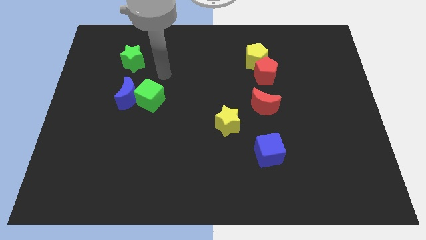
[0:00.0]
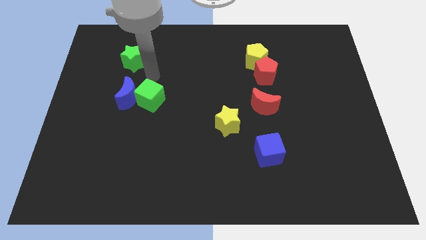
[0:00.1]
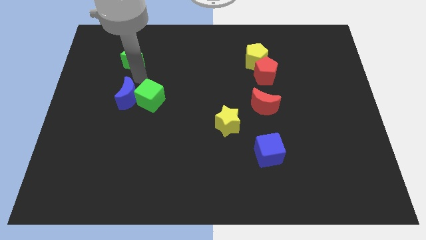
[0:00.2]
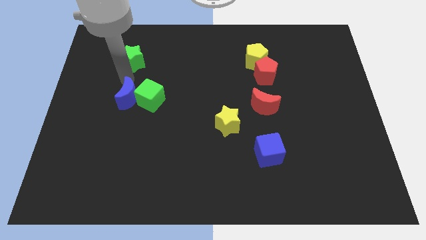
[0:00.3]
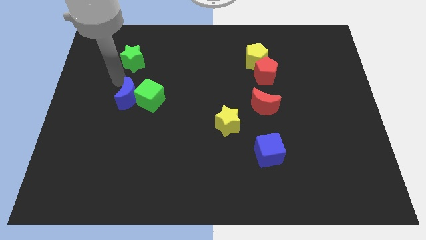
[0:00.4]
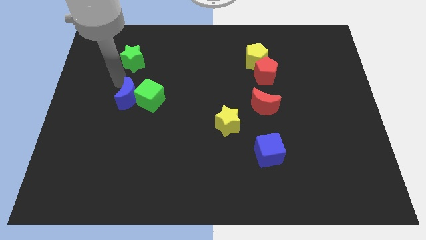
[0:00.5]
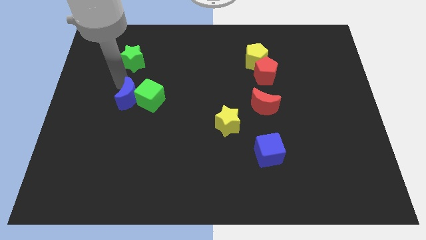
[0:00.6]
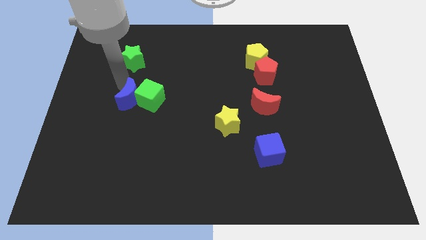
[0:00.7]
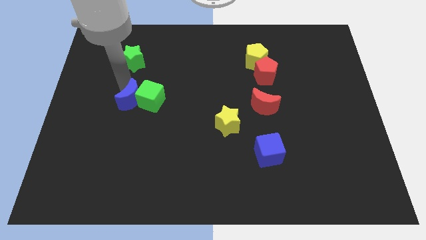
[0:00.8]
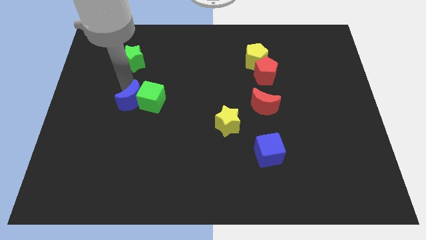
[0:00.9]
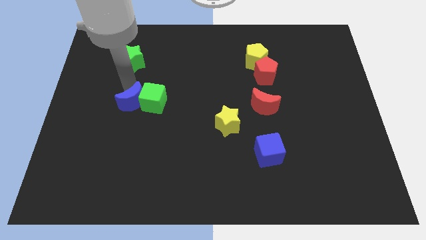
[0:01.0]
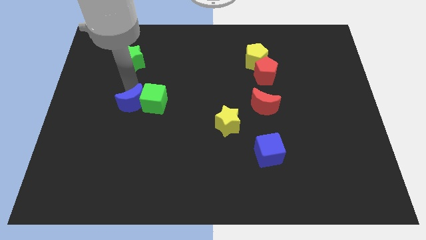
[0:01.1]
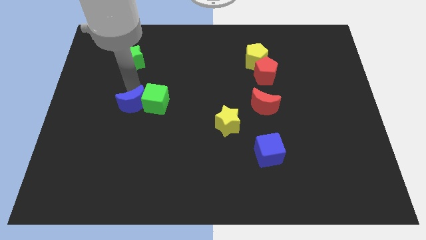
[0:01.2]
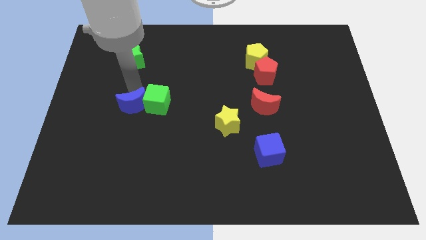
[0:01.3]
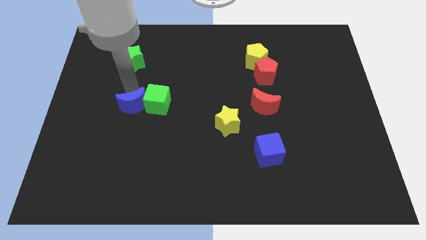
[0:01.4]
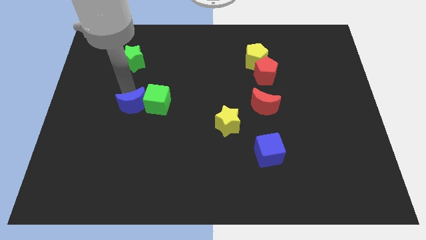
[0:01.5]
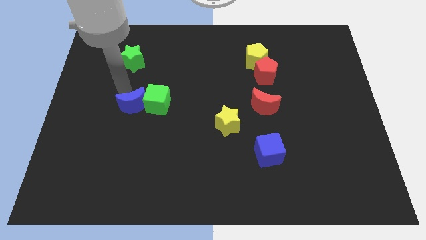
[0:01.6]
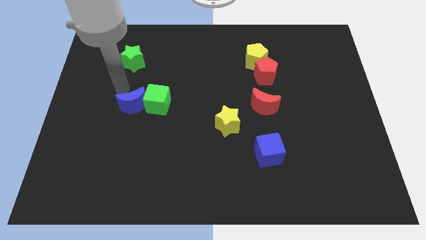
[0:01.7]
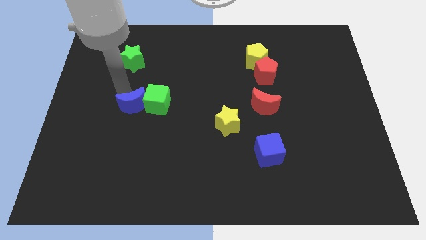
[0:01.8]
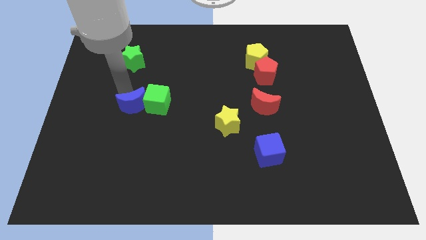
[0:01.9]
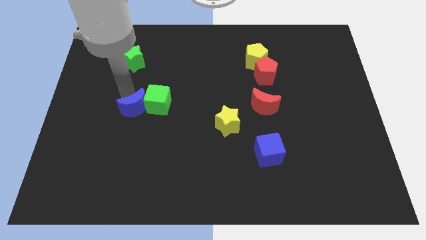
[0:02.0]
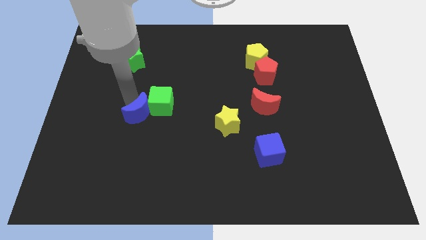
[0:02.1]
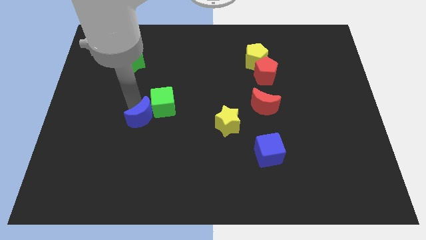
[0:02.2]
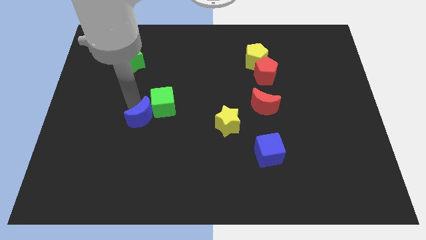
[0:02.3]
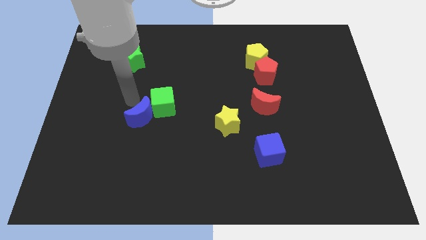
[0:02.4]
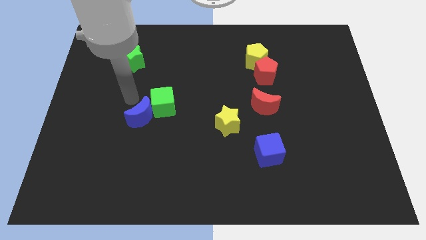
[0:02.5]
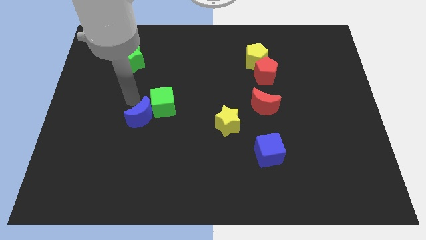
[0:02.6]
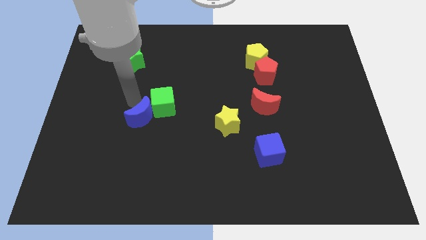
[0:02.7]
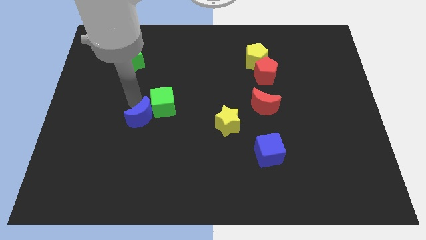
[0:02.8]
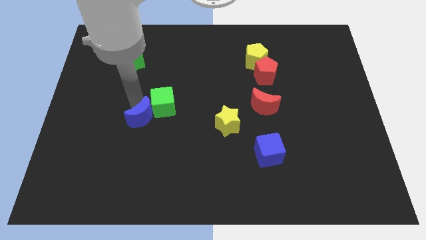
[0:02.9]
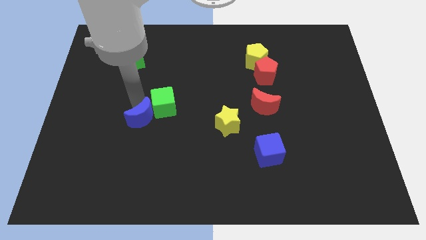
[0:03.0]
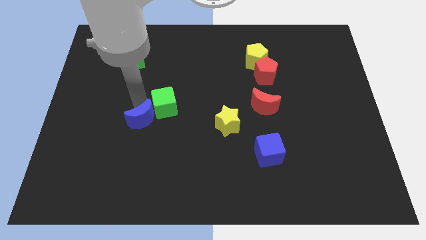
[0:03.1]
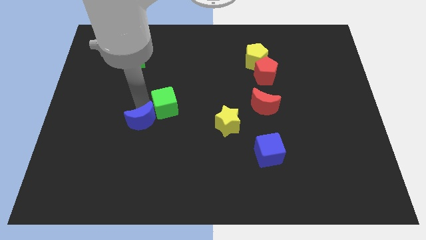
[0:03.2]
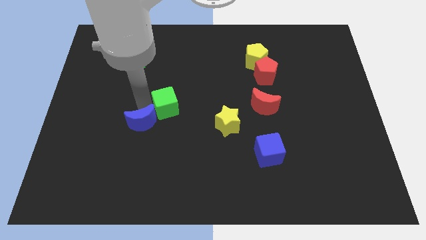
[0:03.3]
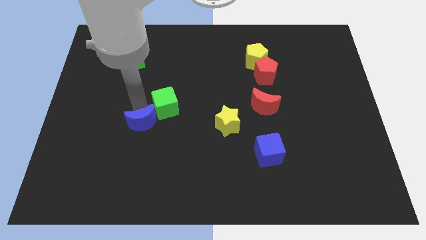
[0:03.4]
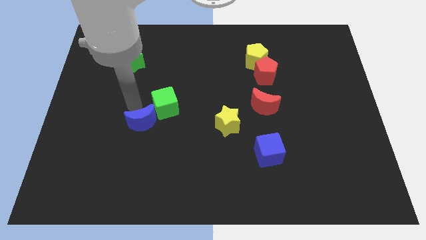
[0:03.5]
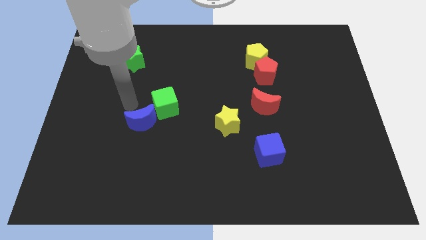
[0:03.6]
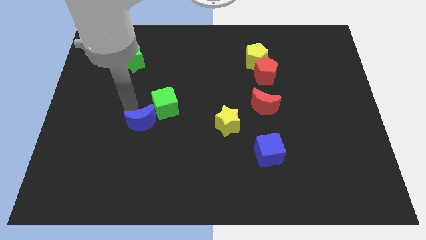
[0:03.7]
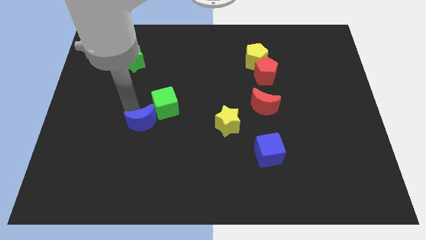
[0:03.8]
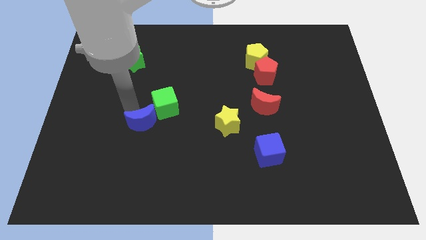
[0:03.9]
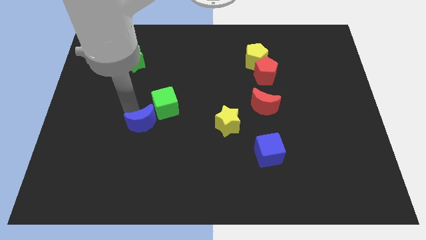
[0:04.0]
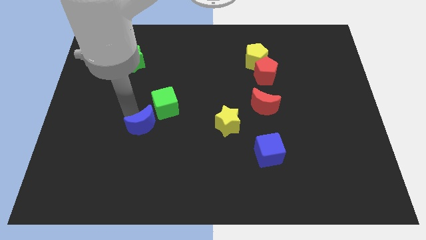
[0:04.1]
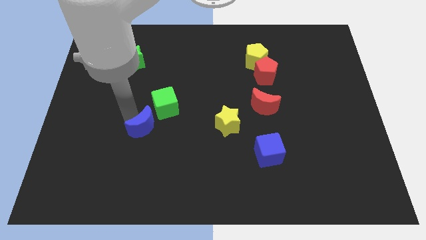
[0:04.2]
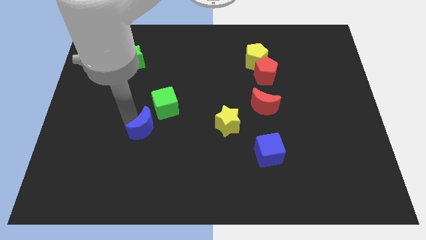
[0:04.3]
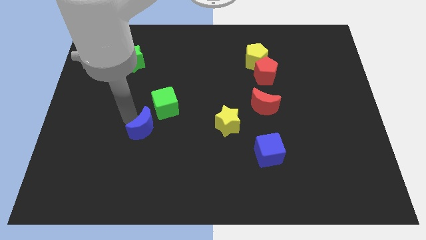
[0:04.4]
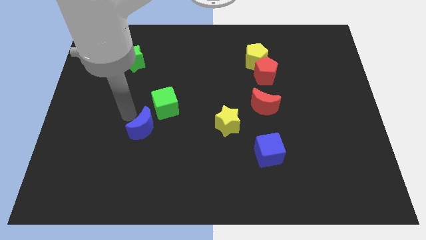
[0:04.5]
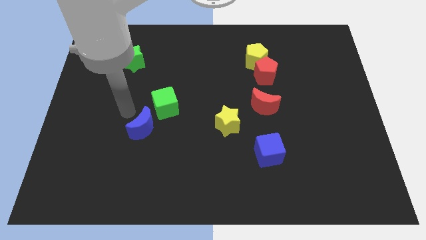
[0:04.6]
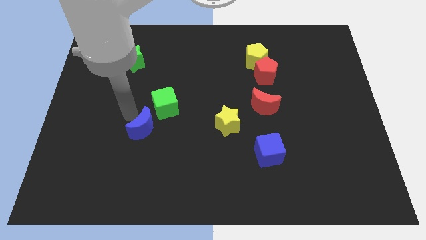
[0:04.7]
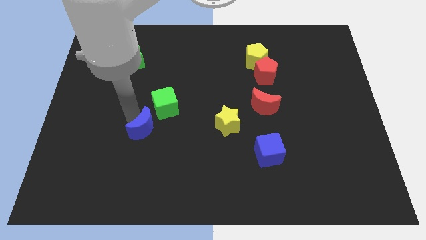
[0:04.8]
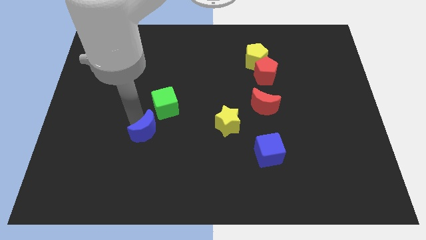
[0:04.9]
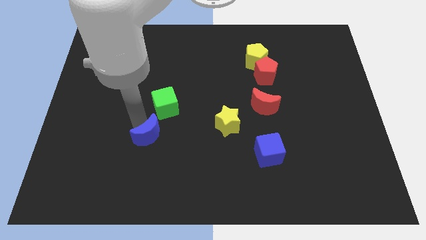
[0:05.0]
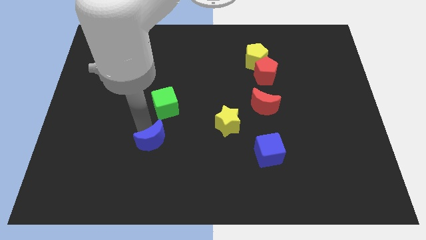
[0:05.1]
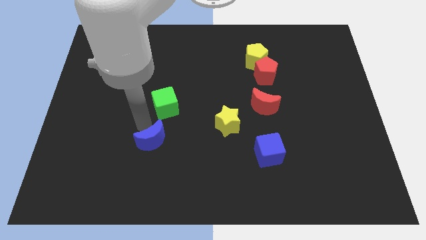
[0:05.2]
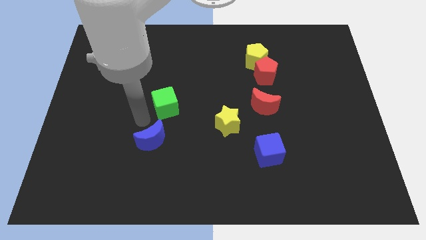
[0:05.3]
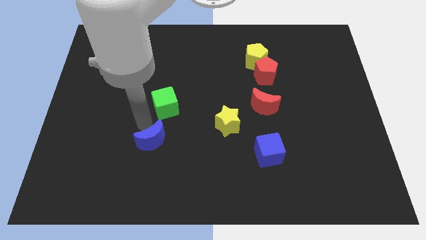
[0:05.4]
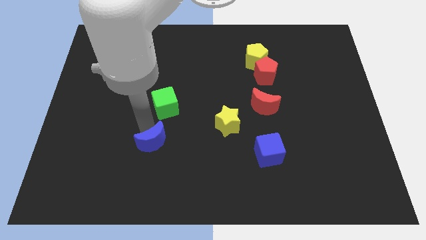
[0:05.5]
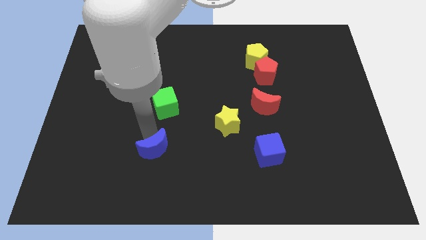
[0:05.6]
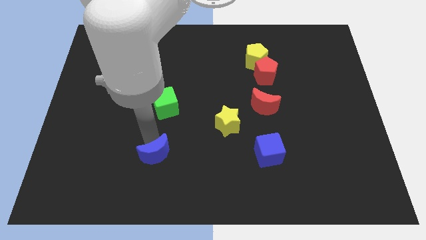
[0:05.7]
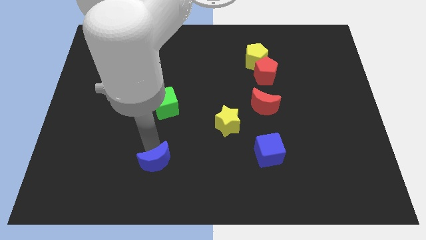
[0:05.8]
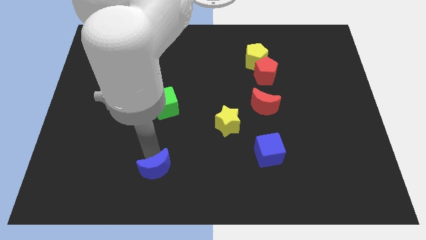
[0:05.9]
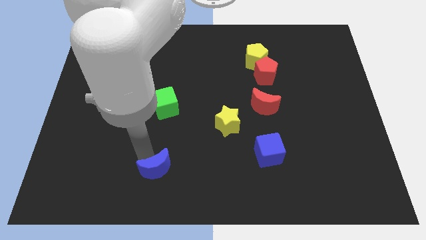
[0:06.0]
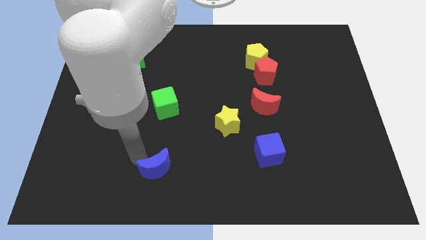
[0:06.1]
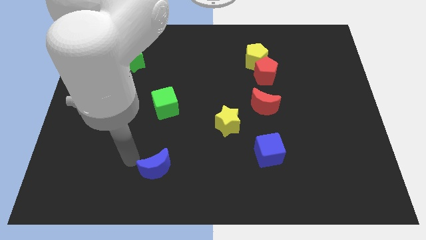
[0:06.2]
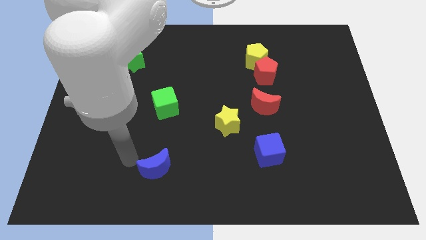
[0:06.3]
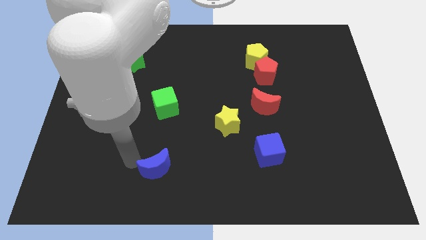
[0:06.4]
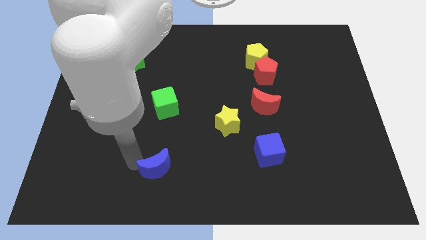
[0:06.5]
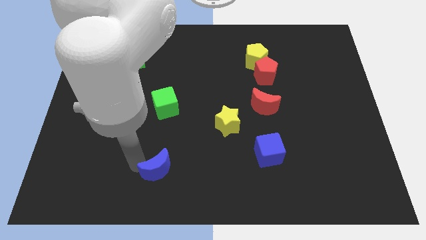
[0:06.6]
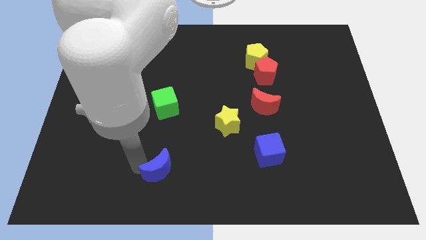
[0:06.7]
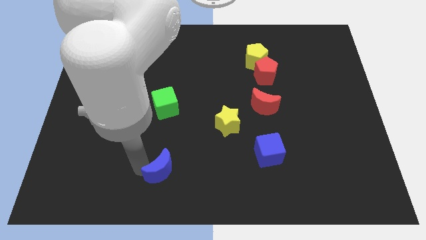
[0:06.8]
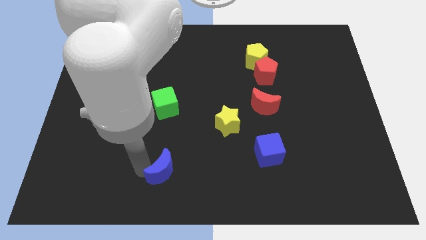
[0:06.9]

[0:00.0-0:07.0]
push the blue moon to the bottom
